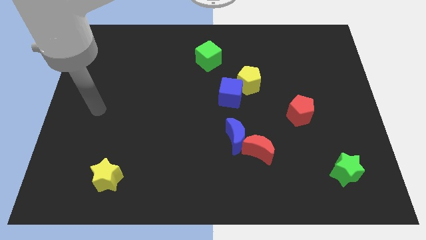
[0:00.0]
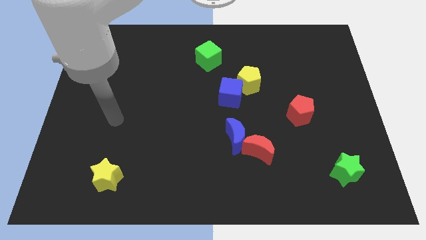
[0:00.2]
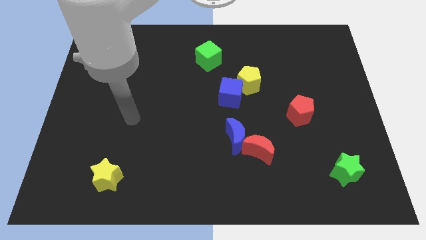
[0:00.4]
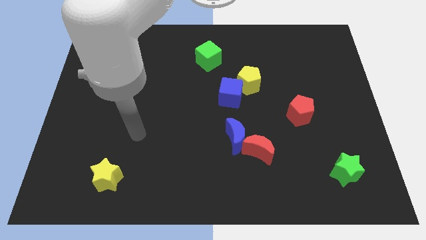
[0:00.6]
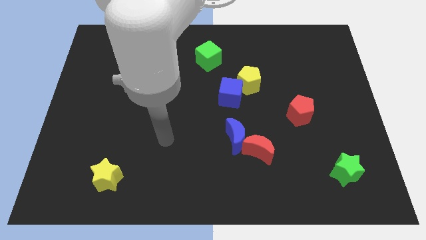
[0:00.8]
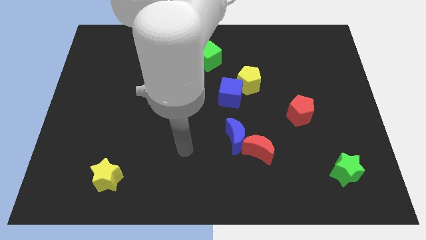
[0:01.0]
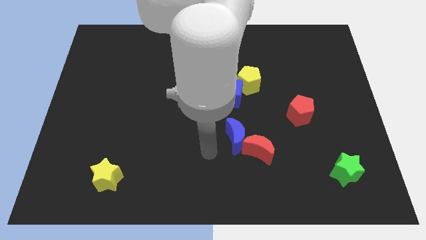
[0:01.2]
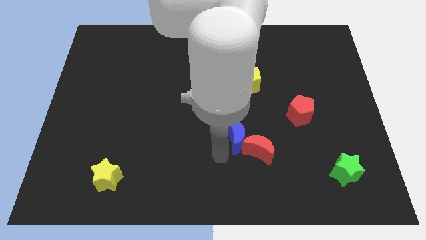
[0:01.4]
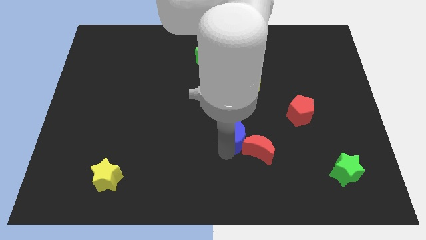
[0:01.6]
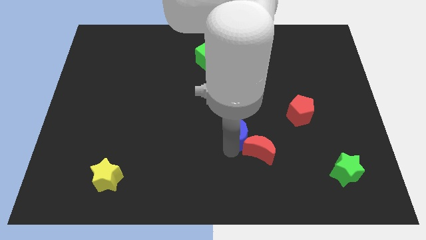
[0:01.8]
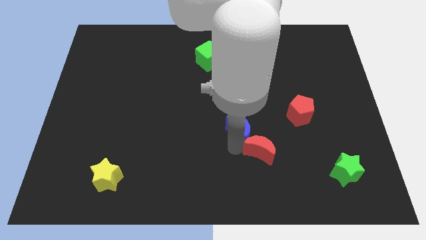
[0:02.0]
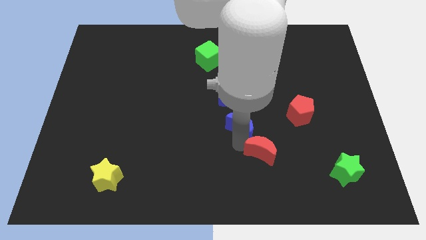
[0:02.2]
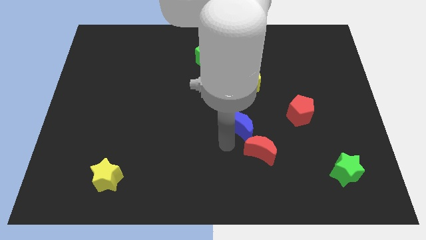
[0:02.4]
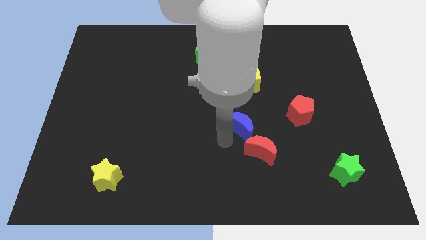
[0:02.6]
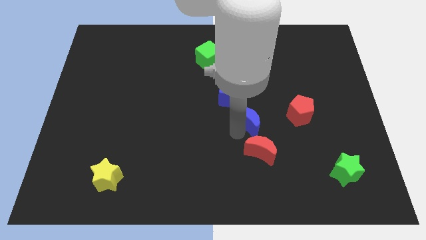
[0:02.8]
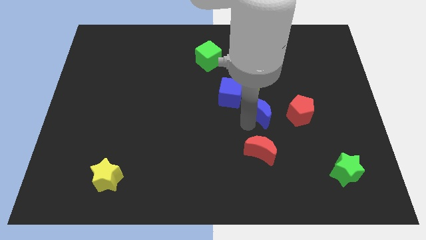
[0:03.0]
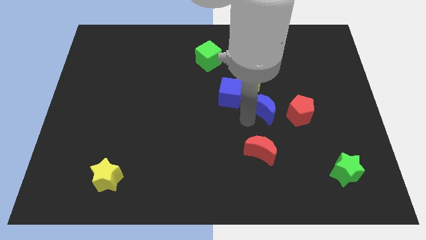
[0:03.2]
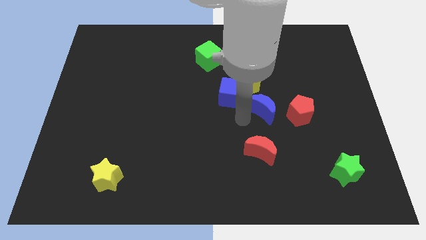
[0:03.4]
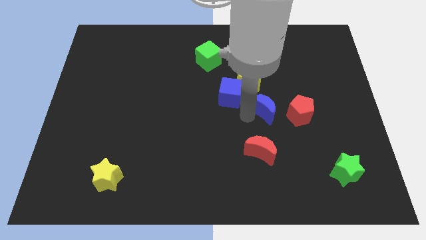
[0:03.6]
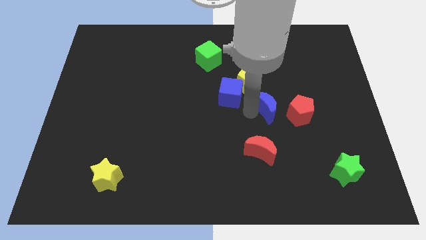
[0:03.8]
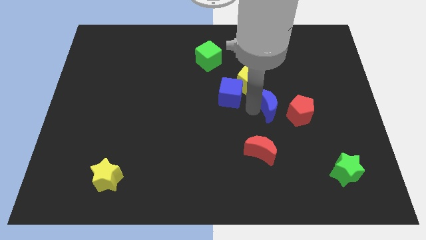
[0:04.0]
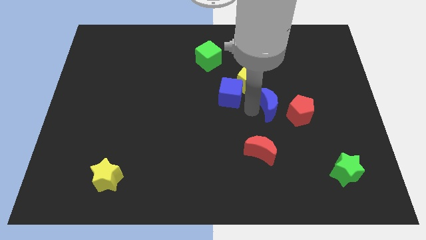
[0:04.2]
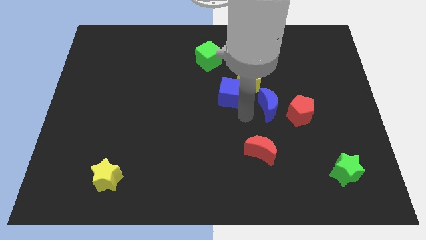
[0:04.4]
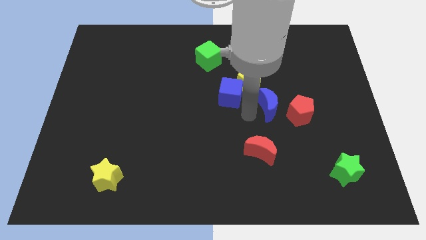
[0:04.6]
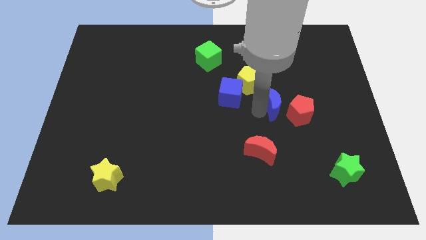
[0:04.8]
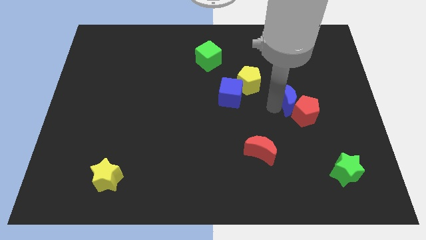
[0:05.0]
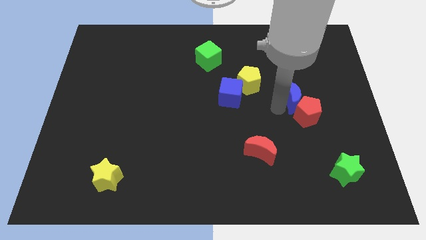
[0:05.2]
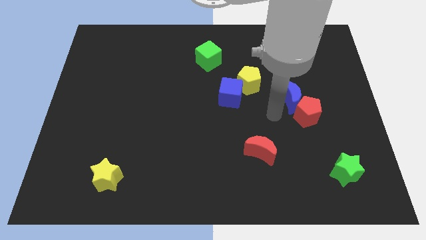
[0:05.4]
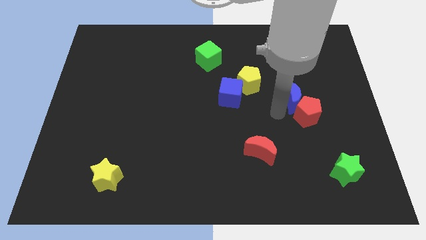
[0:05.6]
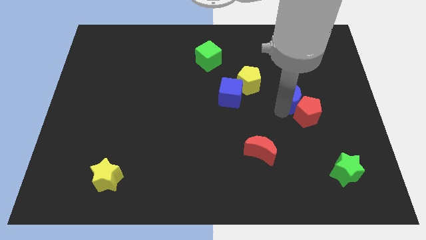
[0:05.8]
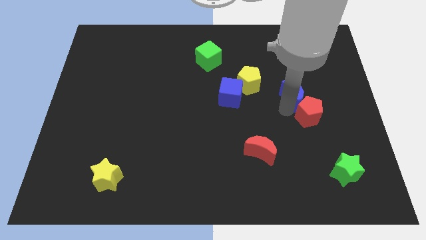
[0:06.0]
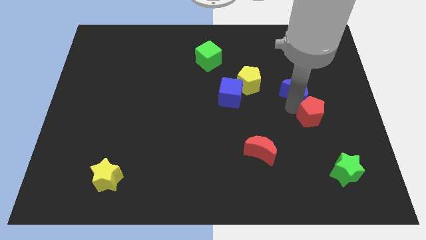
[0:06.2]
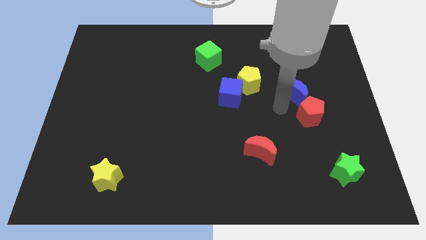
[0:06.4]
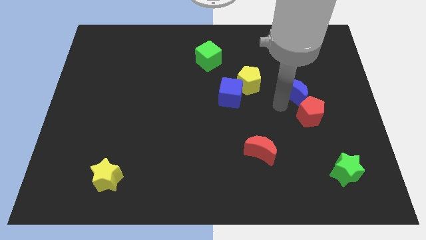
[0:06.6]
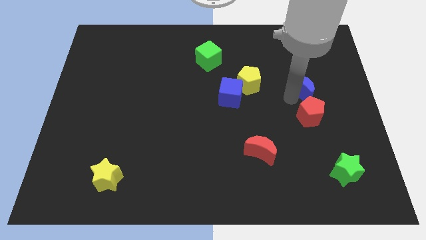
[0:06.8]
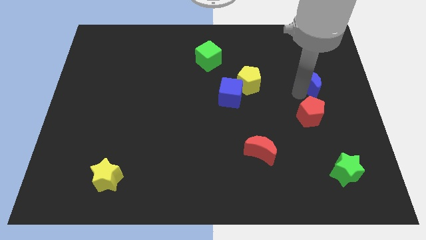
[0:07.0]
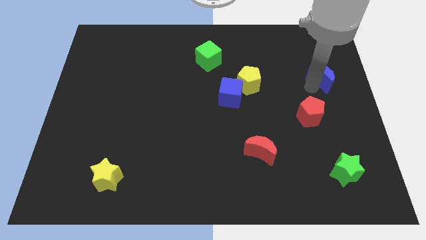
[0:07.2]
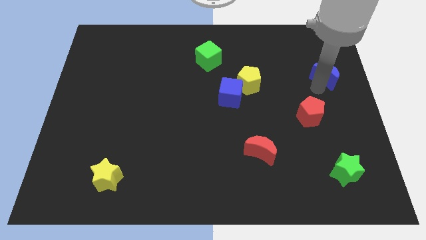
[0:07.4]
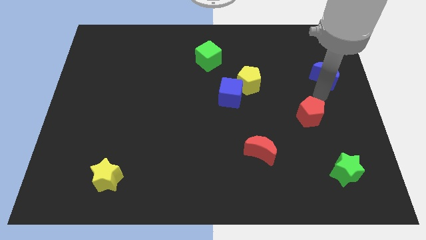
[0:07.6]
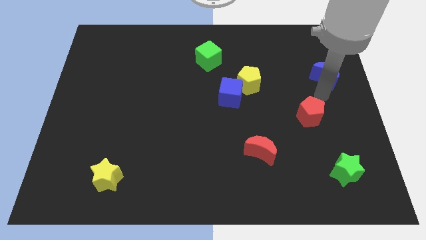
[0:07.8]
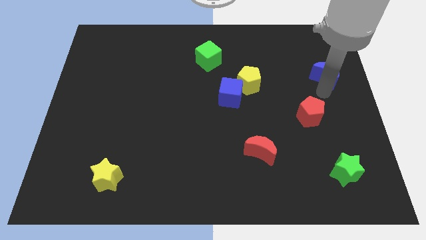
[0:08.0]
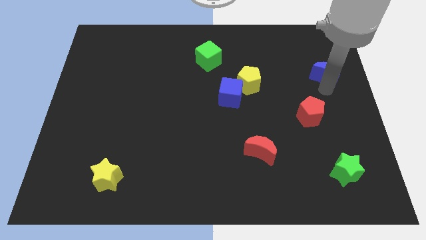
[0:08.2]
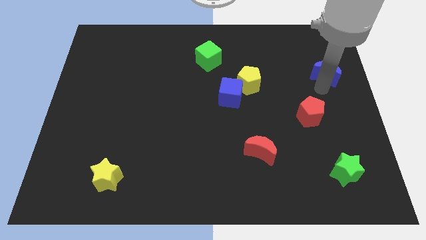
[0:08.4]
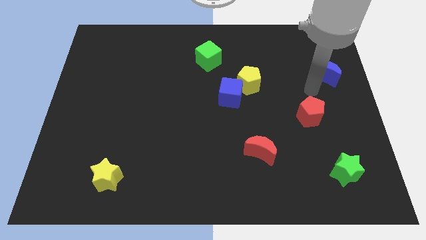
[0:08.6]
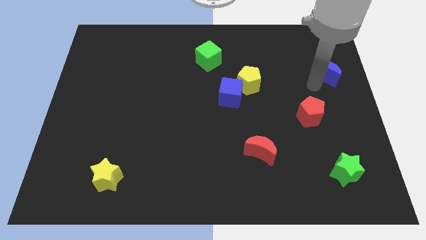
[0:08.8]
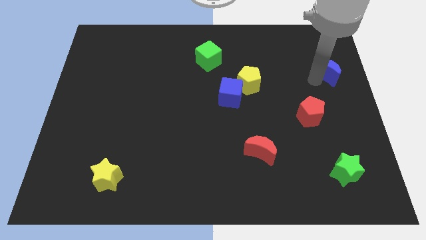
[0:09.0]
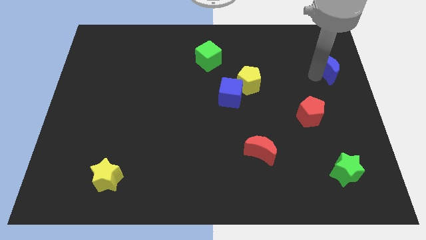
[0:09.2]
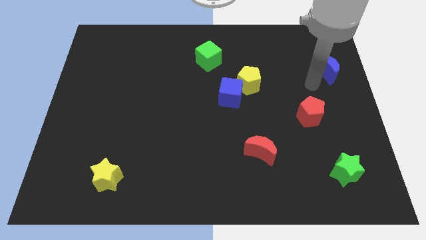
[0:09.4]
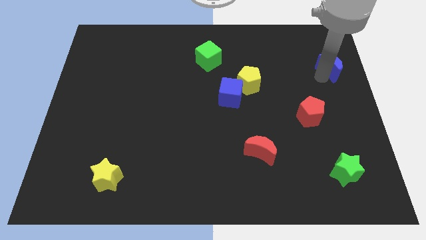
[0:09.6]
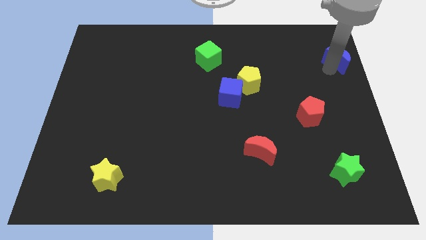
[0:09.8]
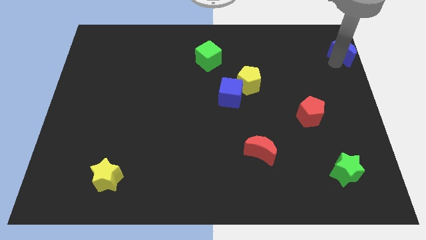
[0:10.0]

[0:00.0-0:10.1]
move the blue moon to the upper right corner

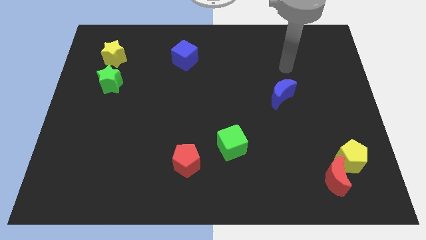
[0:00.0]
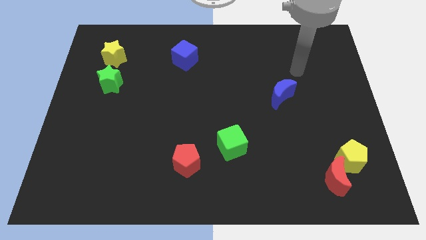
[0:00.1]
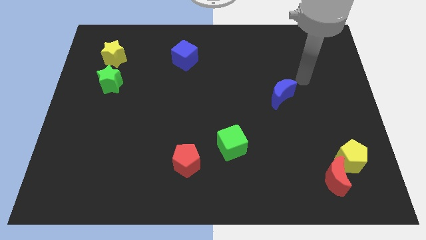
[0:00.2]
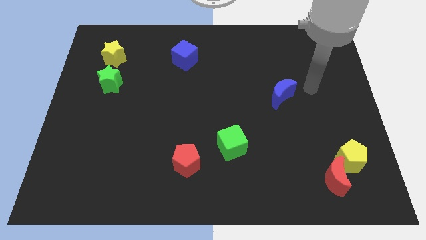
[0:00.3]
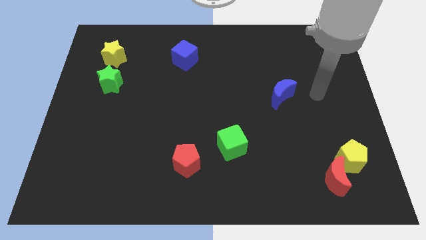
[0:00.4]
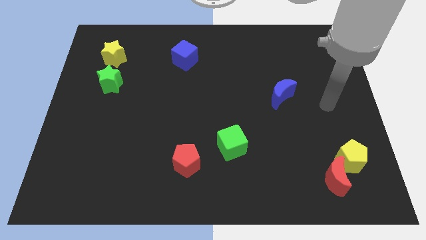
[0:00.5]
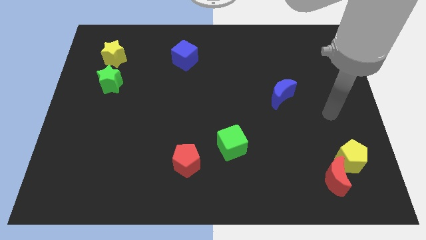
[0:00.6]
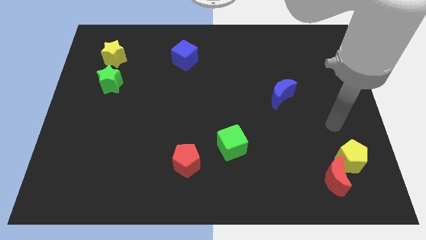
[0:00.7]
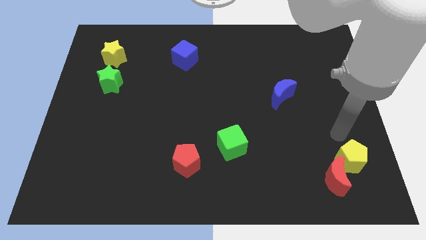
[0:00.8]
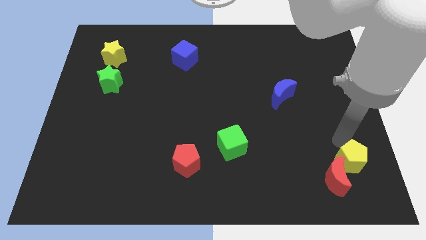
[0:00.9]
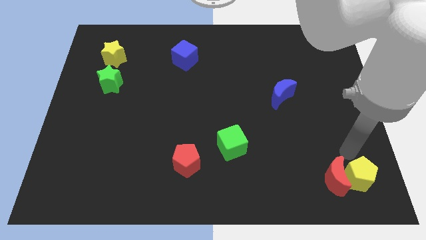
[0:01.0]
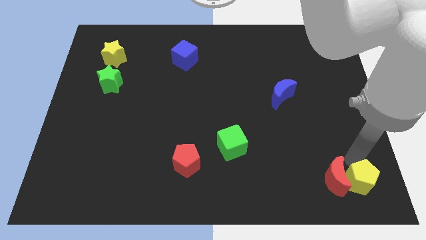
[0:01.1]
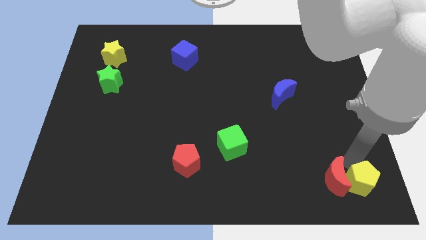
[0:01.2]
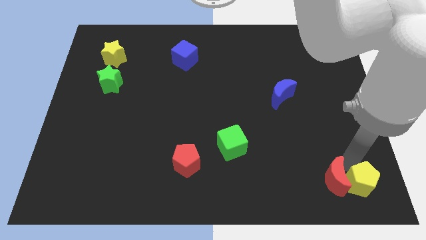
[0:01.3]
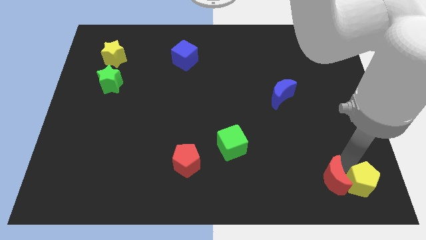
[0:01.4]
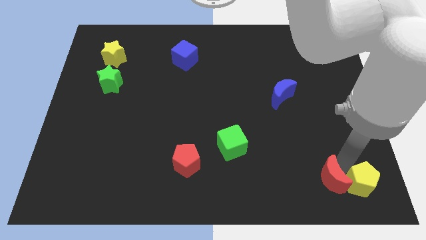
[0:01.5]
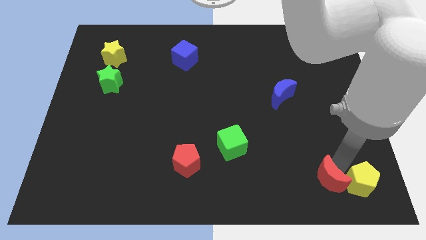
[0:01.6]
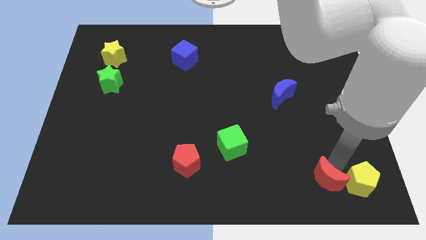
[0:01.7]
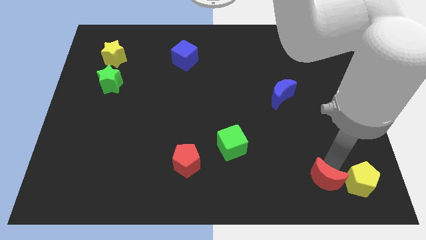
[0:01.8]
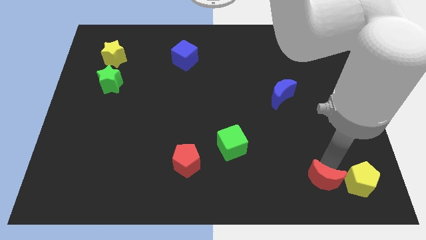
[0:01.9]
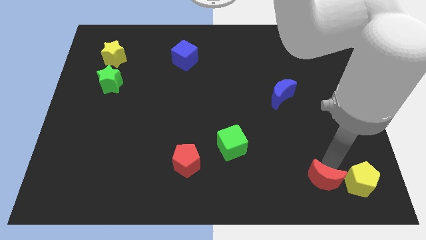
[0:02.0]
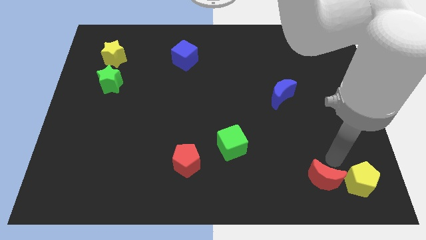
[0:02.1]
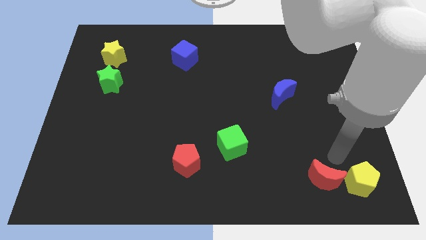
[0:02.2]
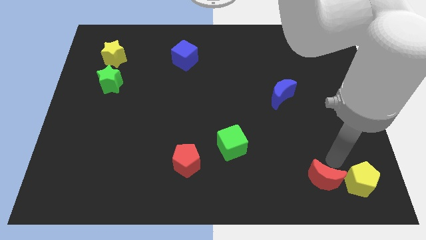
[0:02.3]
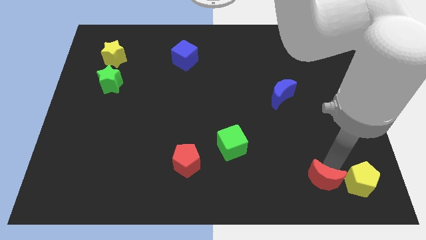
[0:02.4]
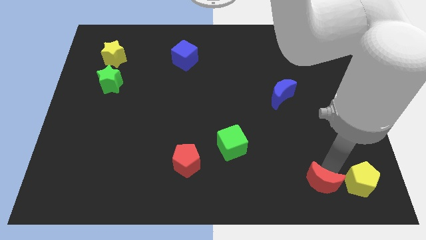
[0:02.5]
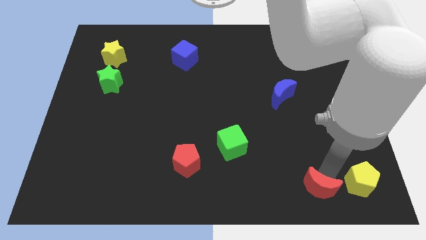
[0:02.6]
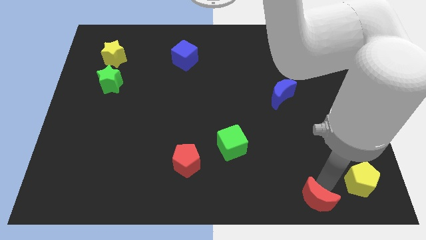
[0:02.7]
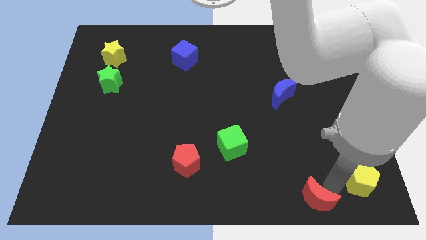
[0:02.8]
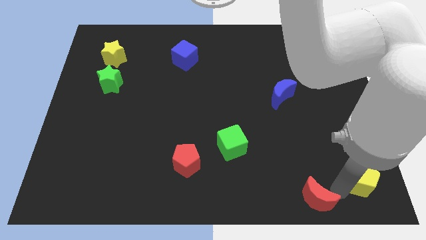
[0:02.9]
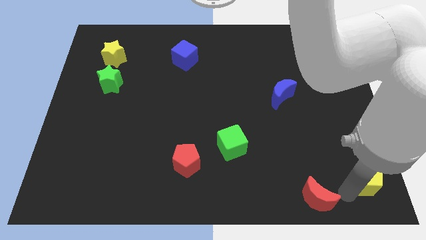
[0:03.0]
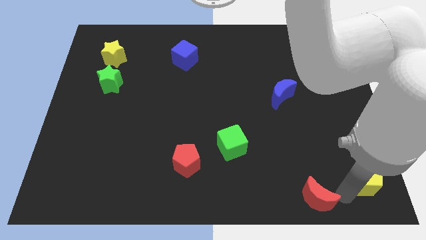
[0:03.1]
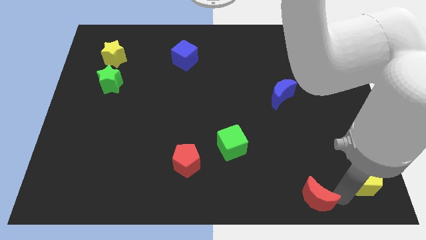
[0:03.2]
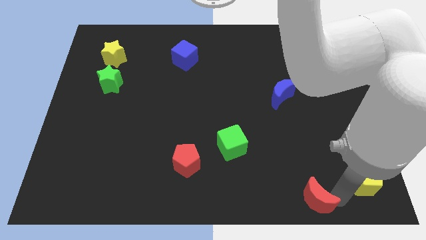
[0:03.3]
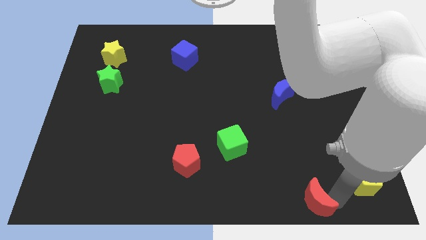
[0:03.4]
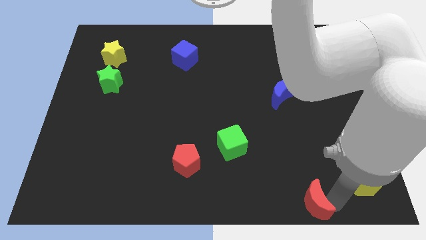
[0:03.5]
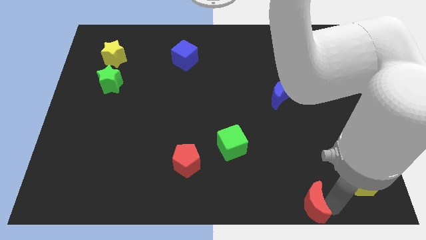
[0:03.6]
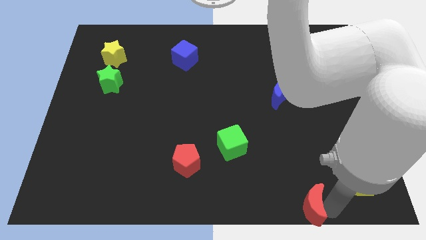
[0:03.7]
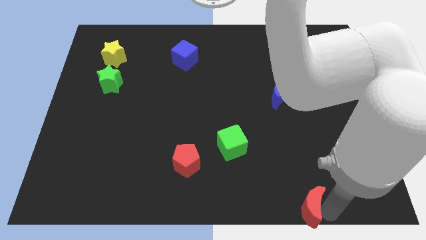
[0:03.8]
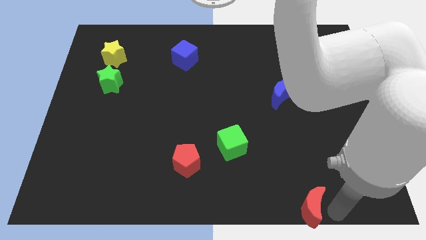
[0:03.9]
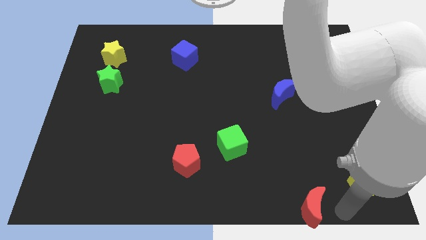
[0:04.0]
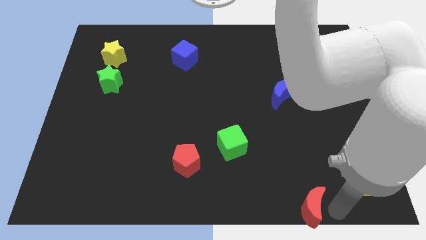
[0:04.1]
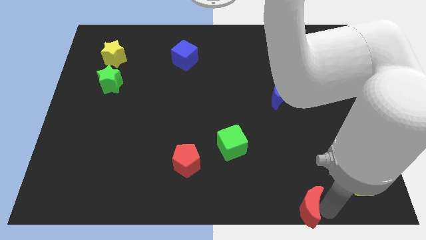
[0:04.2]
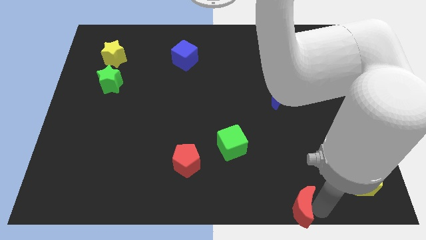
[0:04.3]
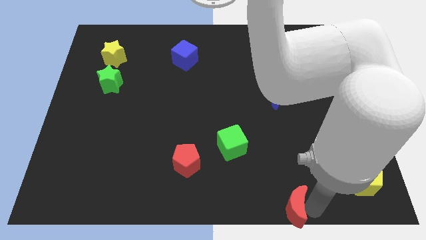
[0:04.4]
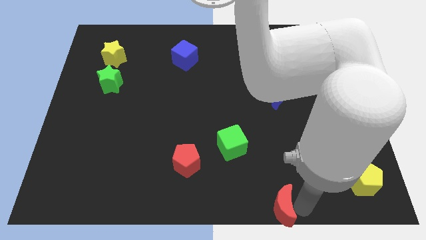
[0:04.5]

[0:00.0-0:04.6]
push the red moon to the bottom
